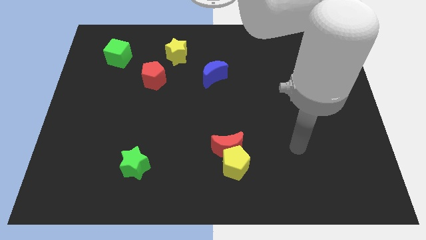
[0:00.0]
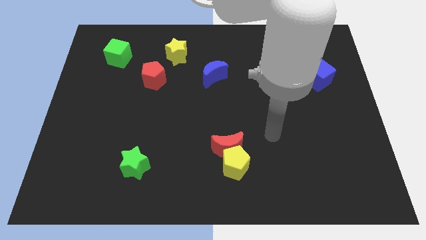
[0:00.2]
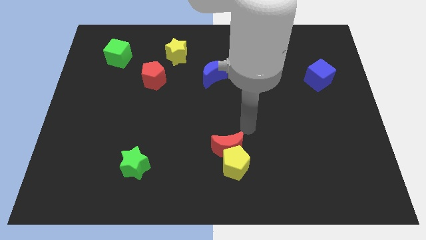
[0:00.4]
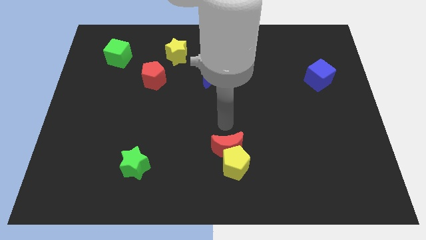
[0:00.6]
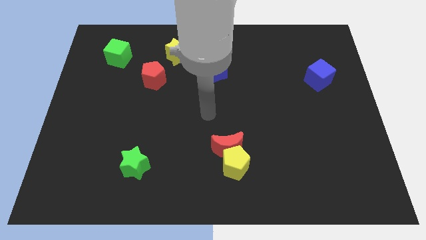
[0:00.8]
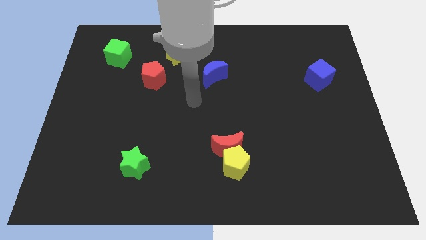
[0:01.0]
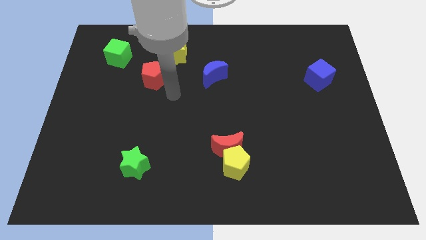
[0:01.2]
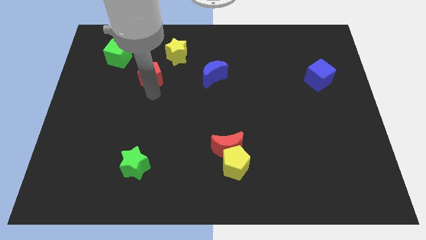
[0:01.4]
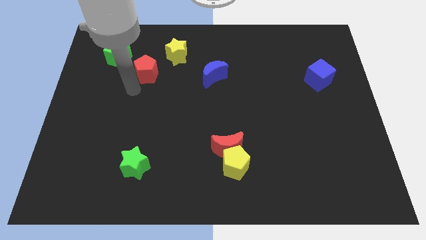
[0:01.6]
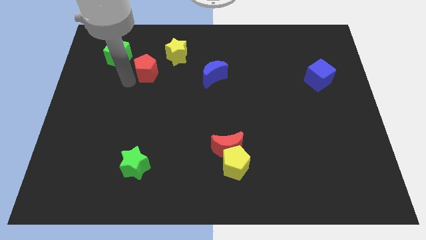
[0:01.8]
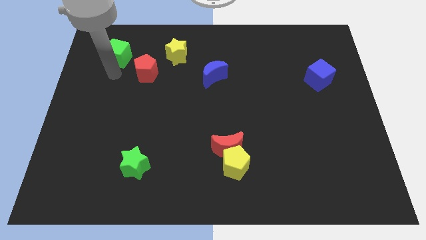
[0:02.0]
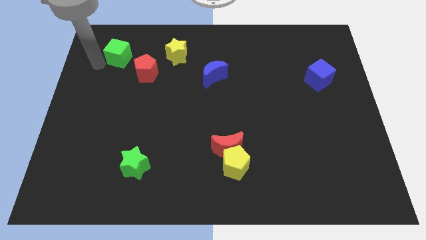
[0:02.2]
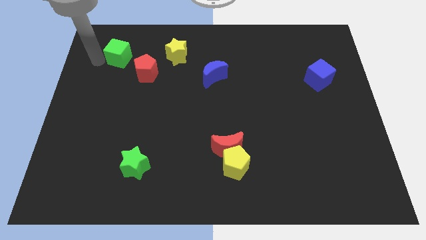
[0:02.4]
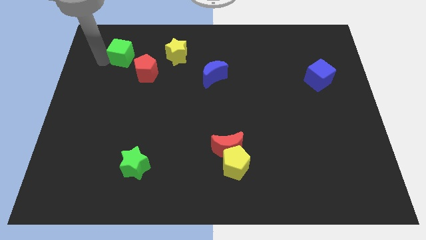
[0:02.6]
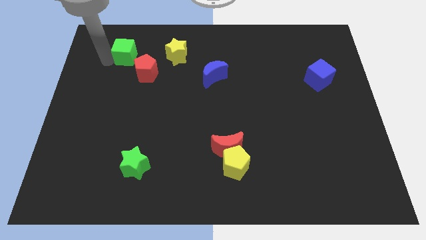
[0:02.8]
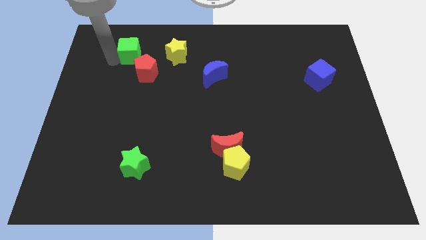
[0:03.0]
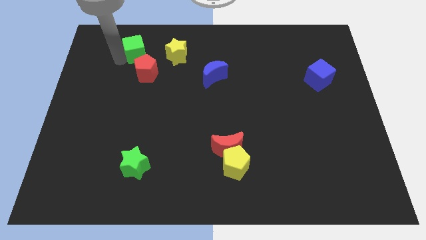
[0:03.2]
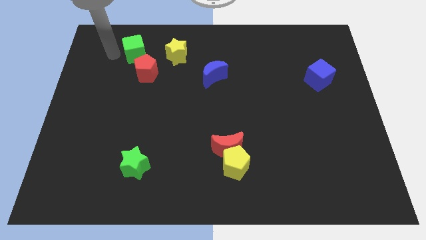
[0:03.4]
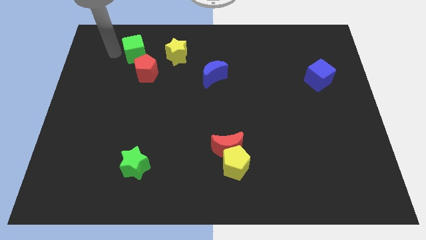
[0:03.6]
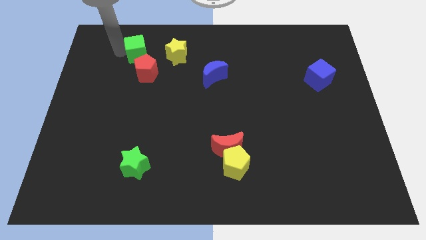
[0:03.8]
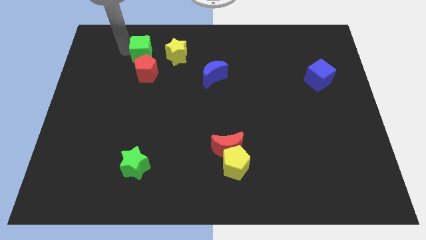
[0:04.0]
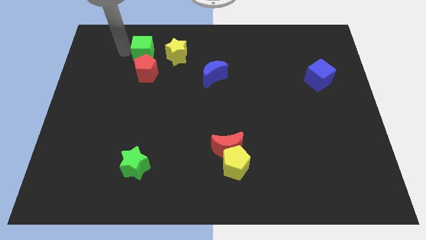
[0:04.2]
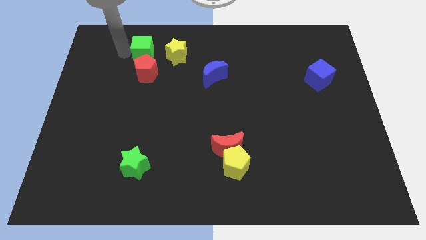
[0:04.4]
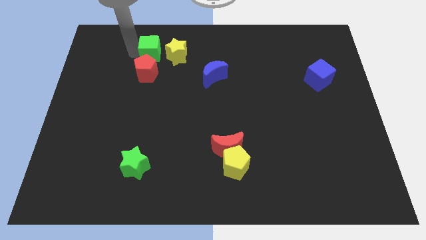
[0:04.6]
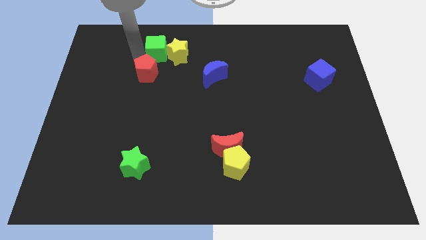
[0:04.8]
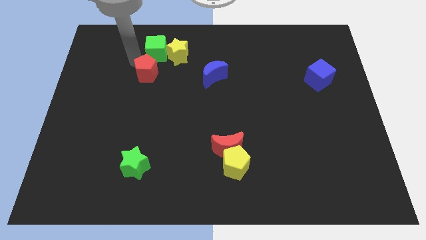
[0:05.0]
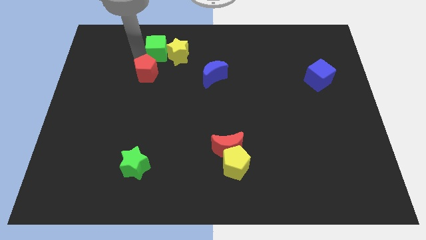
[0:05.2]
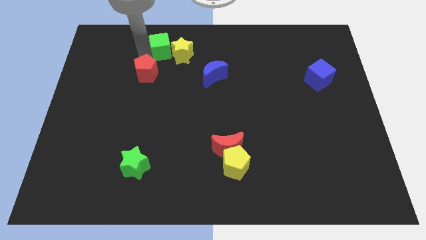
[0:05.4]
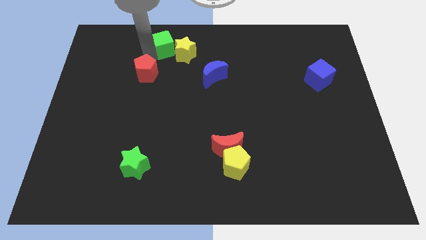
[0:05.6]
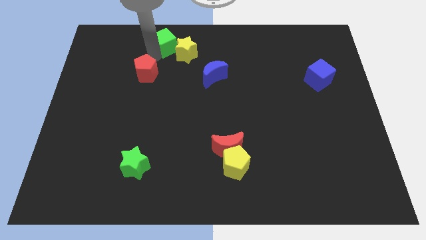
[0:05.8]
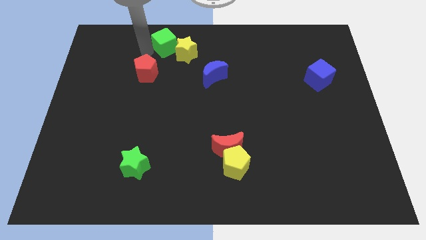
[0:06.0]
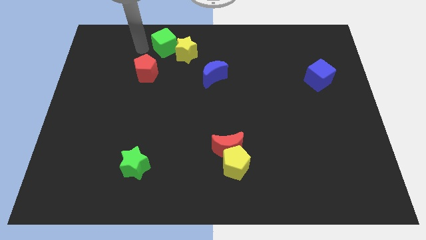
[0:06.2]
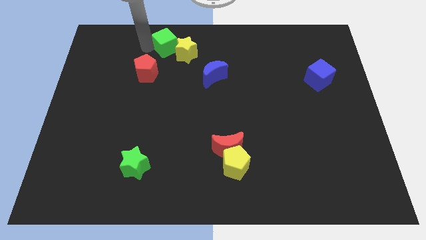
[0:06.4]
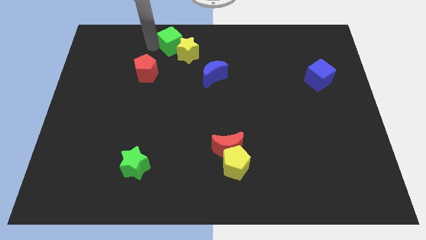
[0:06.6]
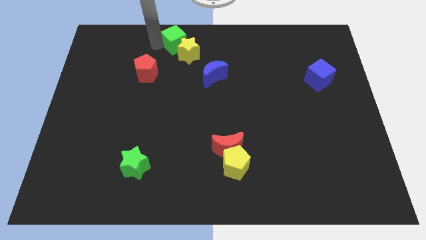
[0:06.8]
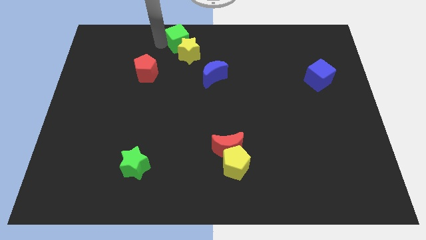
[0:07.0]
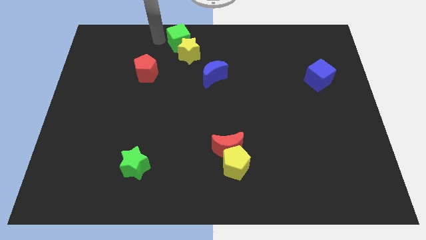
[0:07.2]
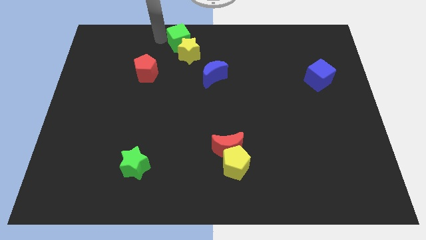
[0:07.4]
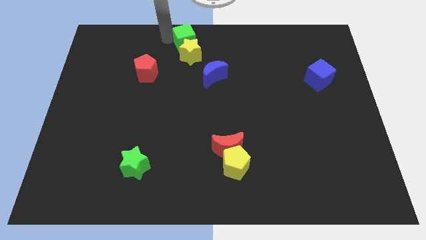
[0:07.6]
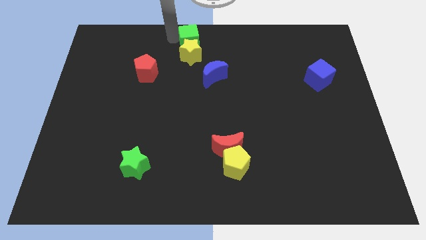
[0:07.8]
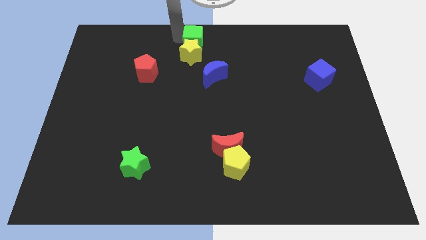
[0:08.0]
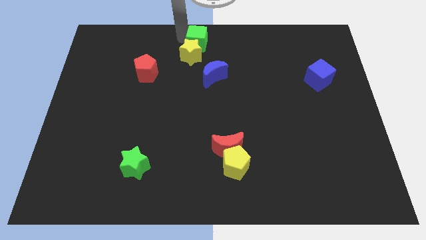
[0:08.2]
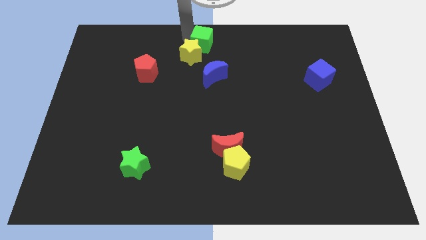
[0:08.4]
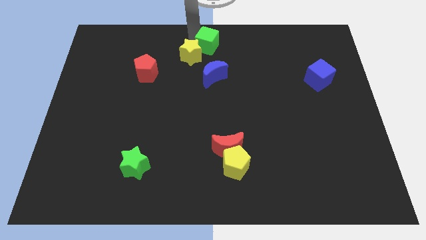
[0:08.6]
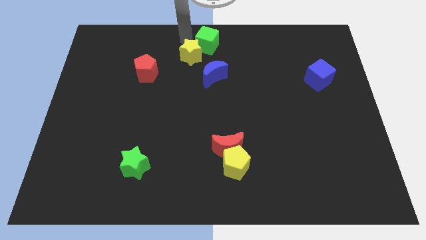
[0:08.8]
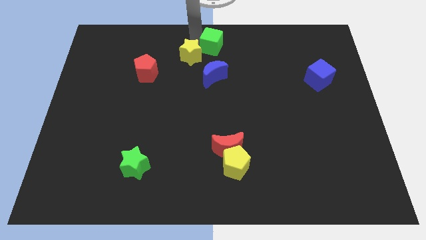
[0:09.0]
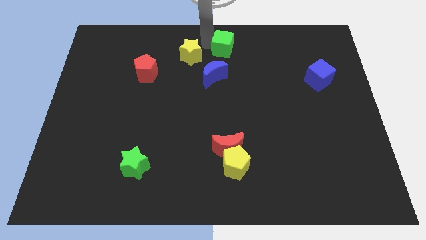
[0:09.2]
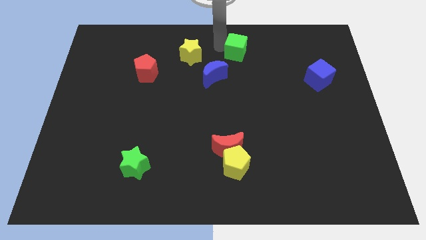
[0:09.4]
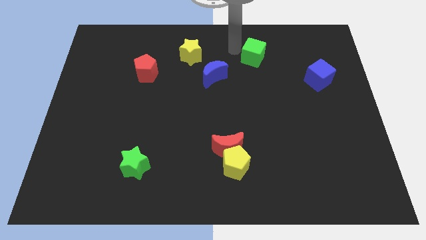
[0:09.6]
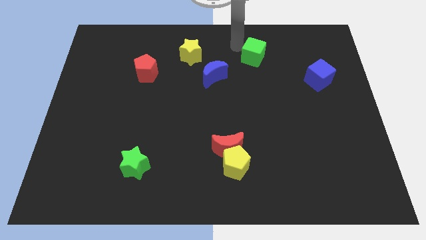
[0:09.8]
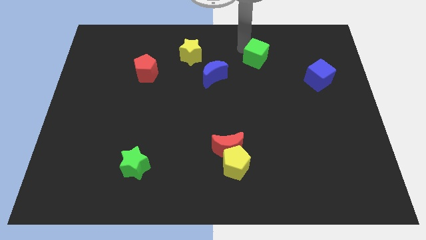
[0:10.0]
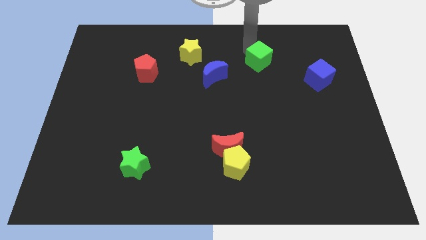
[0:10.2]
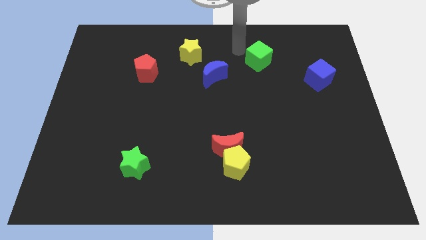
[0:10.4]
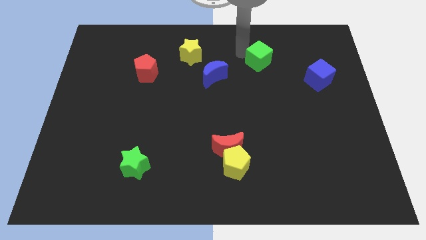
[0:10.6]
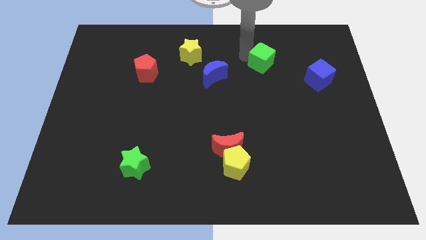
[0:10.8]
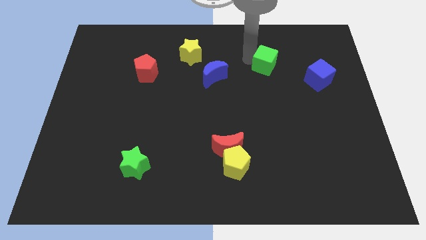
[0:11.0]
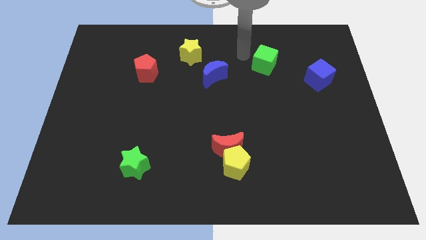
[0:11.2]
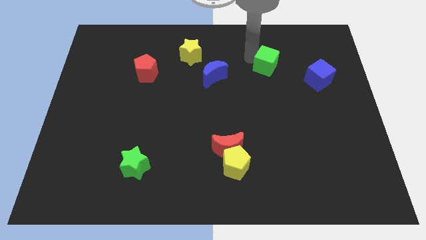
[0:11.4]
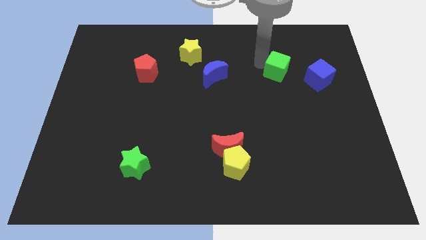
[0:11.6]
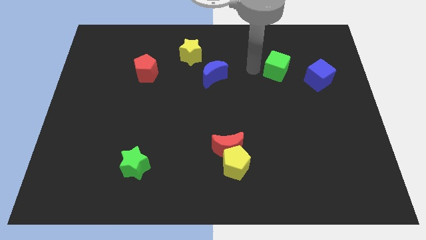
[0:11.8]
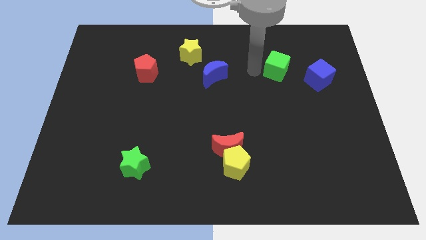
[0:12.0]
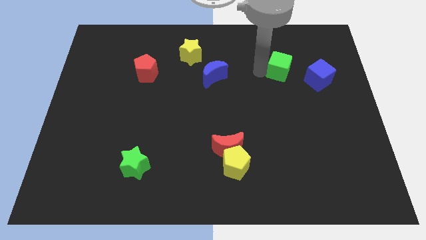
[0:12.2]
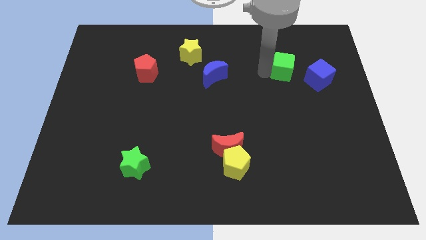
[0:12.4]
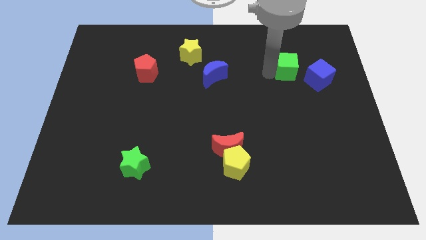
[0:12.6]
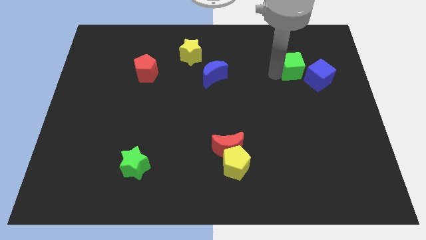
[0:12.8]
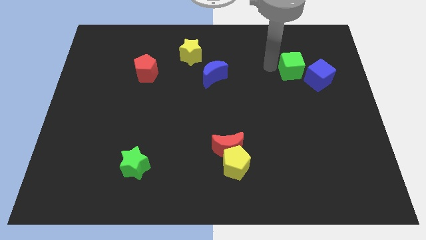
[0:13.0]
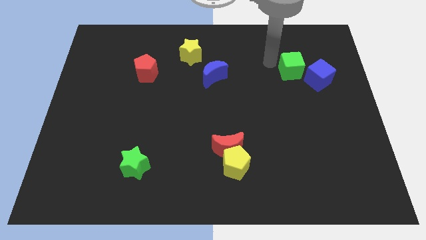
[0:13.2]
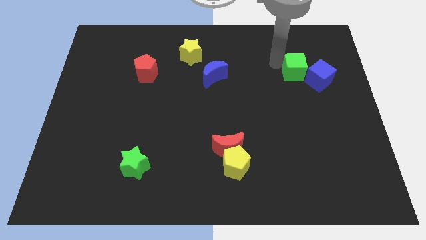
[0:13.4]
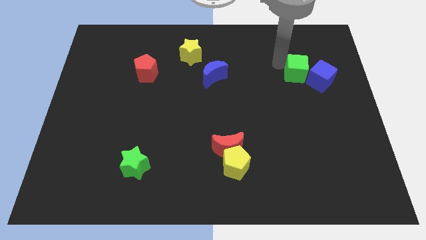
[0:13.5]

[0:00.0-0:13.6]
push the green cube to the blue cube

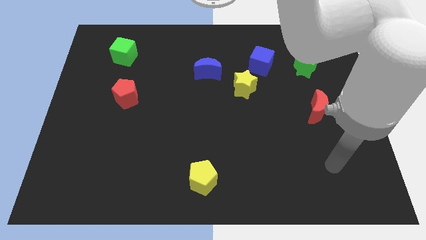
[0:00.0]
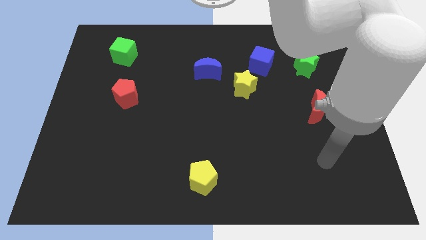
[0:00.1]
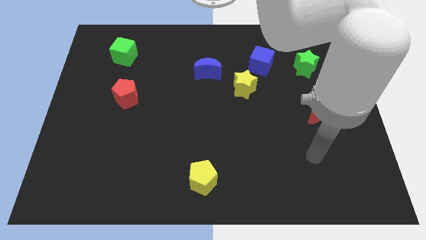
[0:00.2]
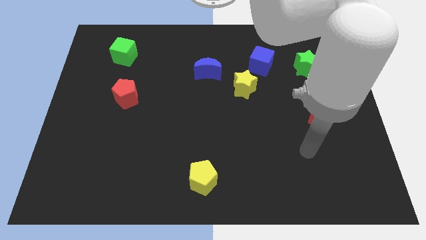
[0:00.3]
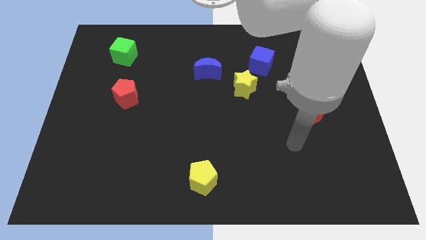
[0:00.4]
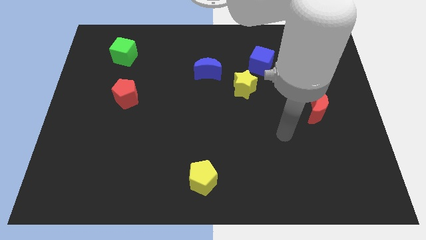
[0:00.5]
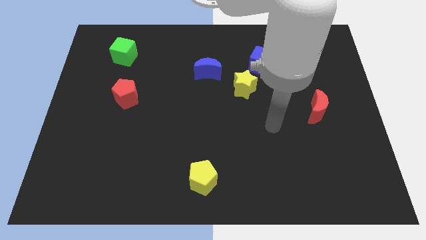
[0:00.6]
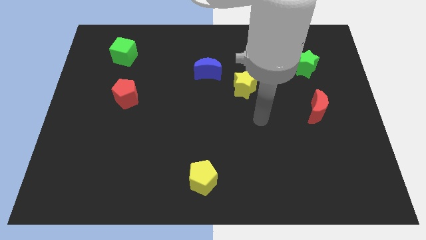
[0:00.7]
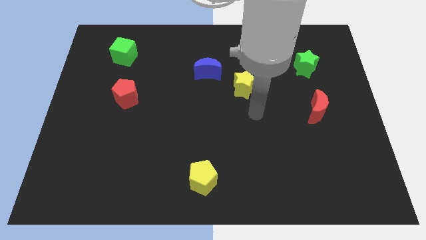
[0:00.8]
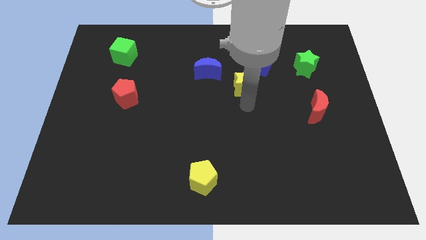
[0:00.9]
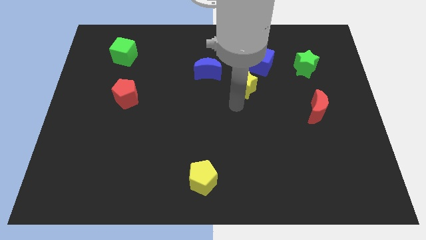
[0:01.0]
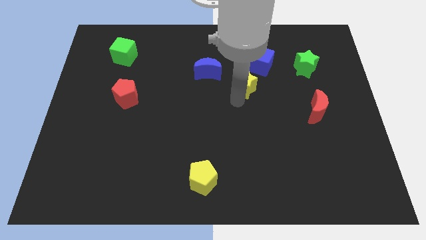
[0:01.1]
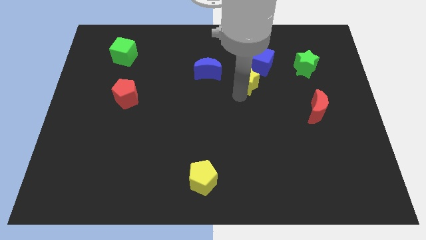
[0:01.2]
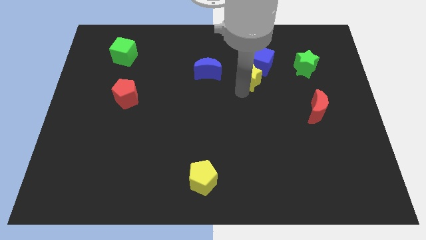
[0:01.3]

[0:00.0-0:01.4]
slide the yellow star to the blue cube
